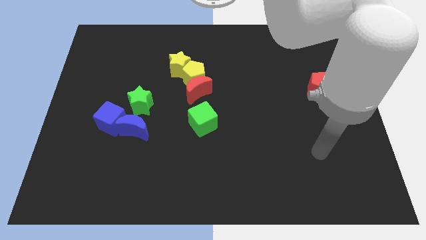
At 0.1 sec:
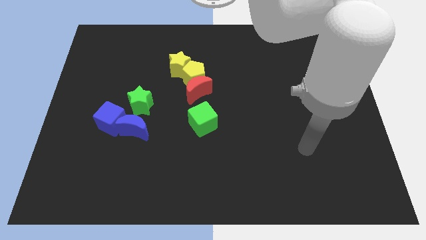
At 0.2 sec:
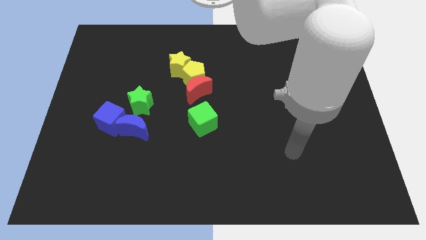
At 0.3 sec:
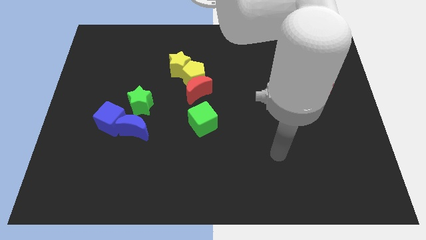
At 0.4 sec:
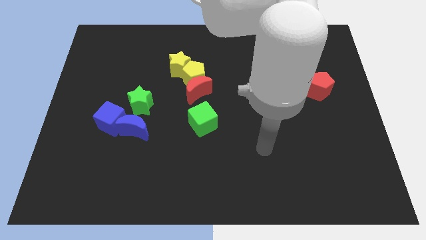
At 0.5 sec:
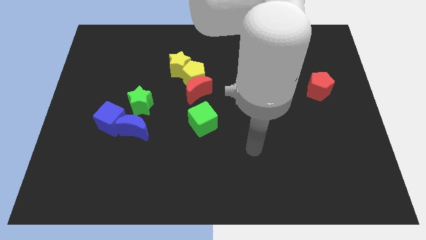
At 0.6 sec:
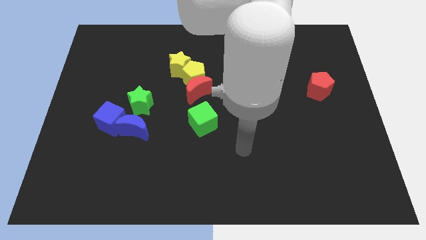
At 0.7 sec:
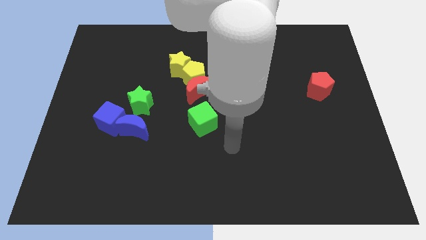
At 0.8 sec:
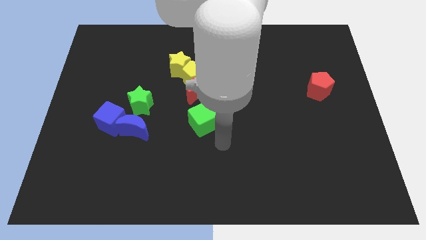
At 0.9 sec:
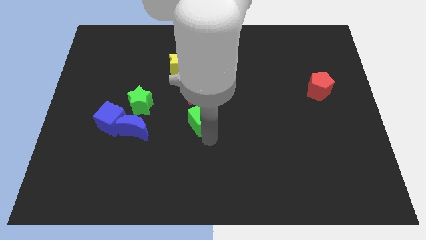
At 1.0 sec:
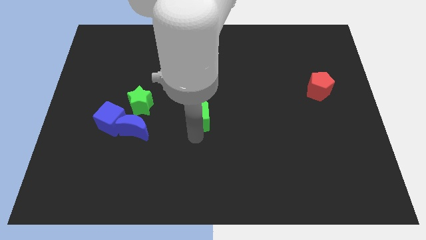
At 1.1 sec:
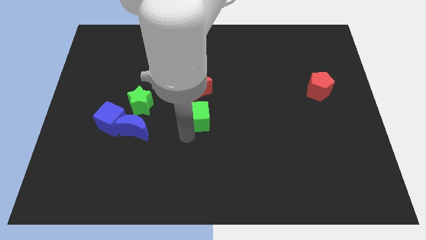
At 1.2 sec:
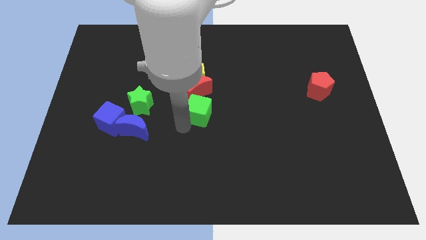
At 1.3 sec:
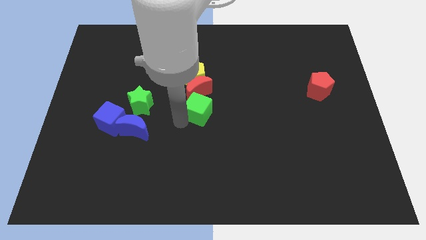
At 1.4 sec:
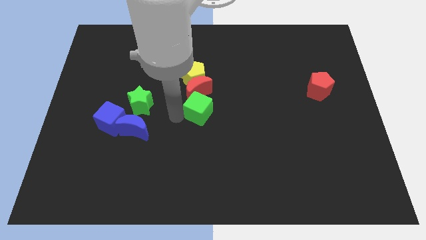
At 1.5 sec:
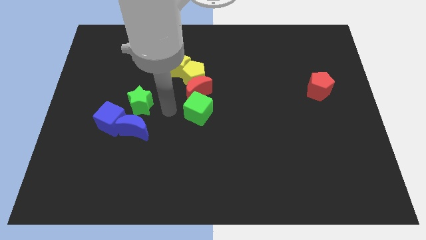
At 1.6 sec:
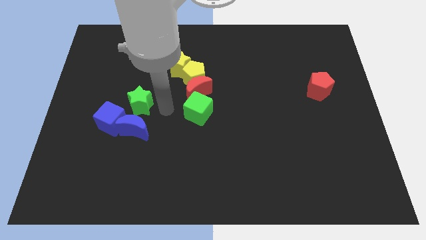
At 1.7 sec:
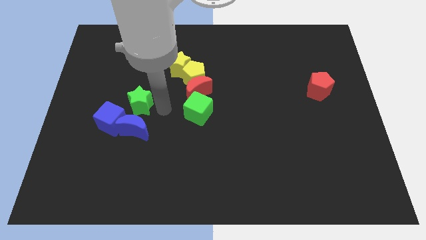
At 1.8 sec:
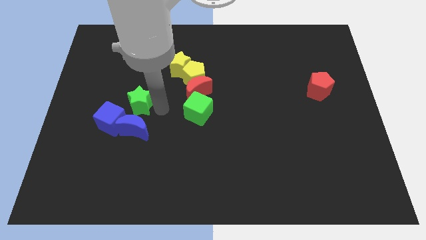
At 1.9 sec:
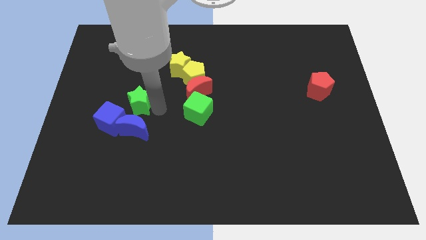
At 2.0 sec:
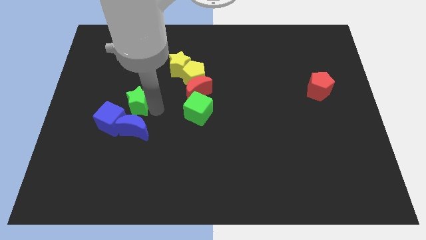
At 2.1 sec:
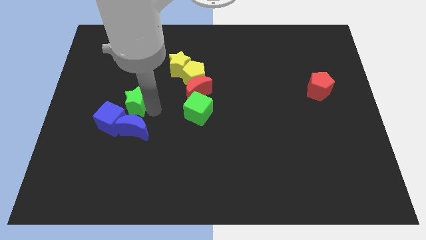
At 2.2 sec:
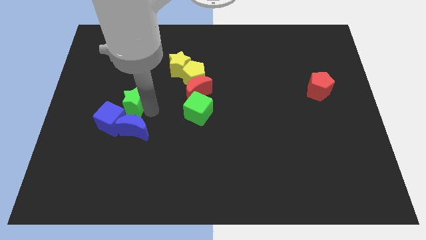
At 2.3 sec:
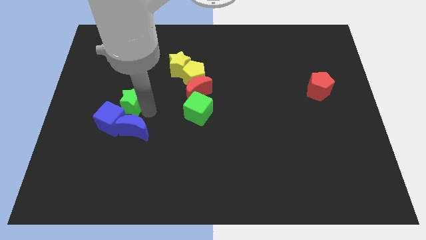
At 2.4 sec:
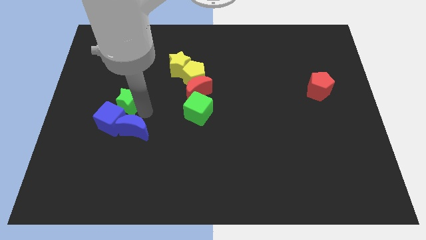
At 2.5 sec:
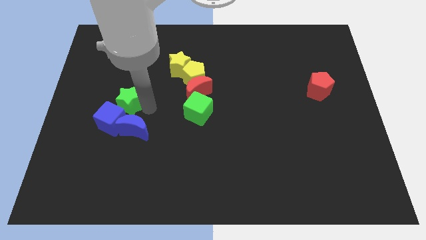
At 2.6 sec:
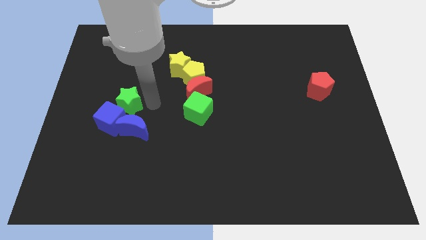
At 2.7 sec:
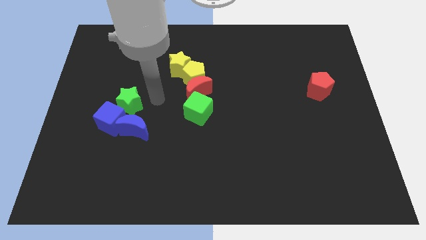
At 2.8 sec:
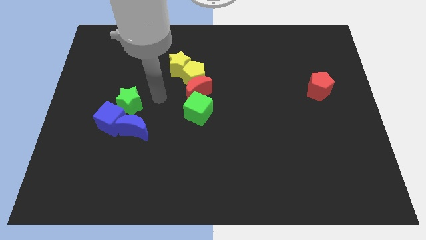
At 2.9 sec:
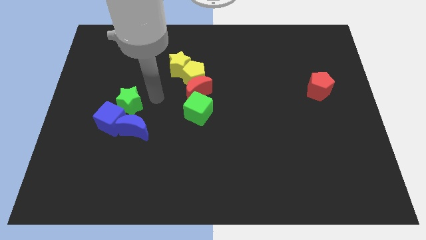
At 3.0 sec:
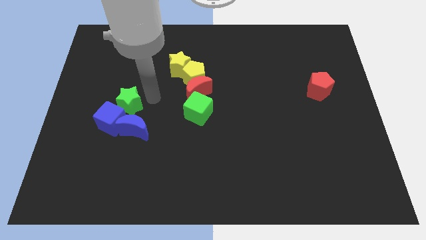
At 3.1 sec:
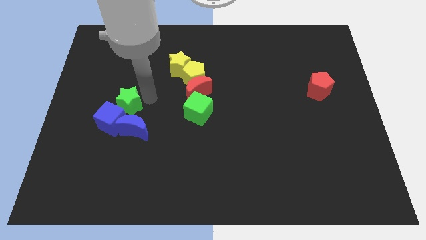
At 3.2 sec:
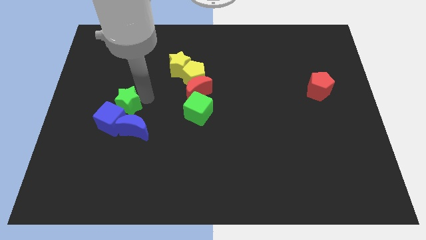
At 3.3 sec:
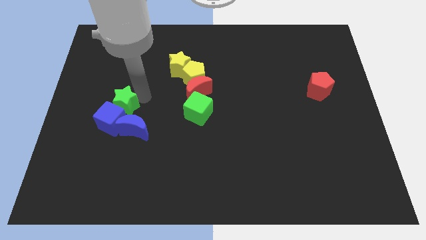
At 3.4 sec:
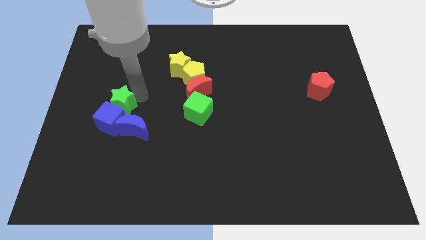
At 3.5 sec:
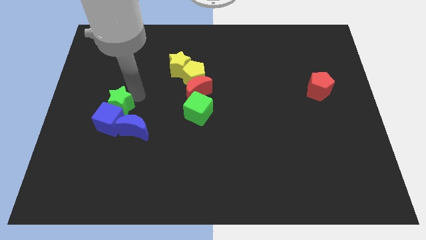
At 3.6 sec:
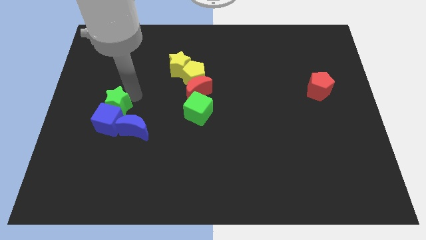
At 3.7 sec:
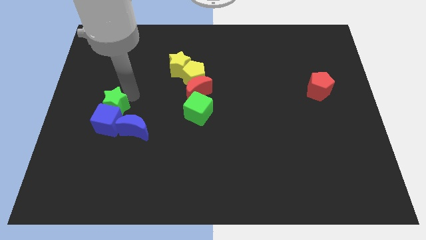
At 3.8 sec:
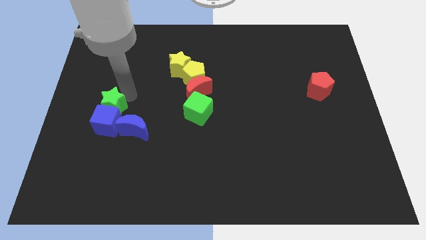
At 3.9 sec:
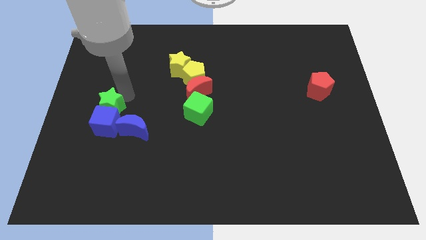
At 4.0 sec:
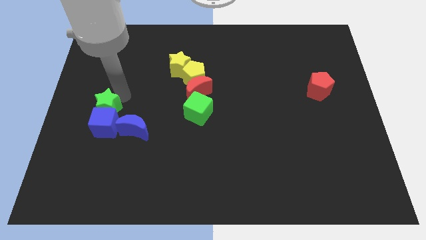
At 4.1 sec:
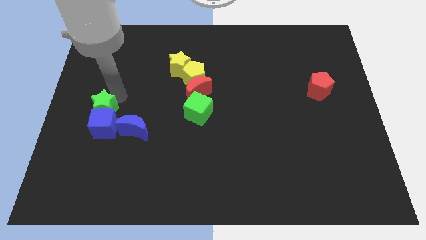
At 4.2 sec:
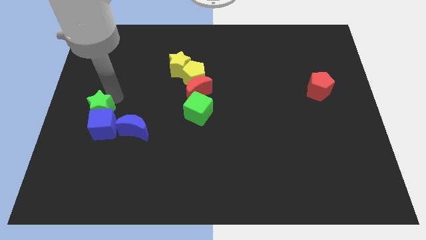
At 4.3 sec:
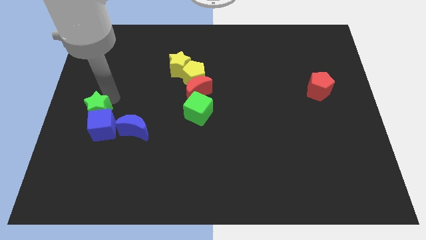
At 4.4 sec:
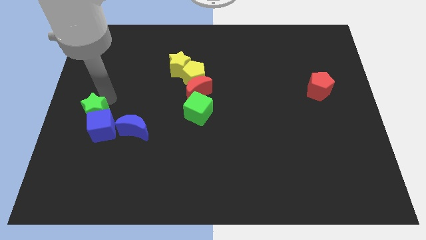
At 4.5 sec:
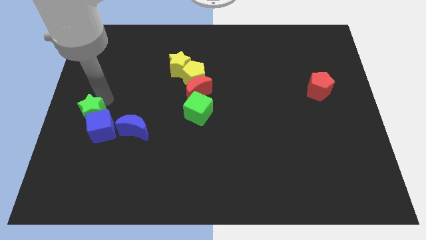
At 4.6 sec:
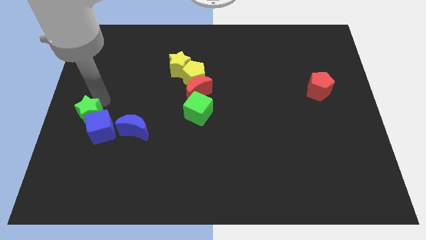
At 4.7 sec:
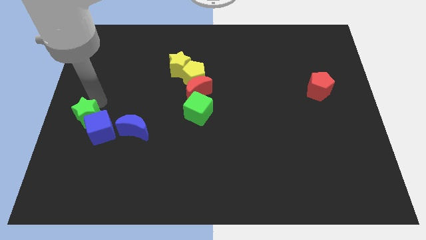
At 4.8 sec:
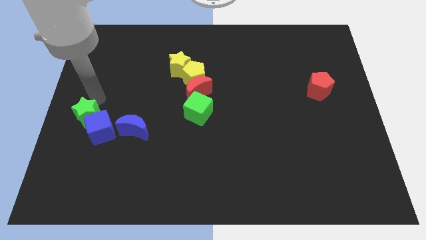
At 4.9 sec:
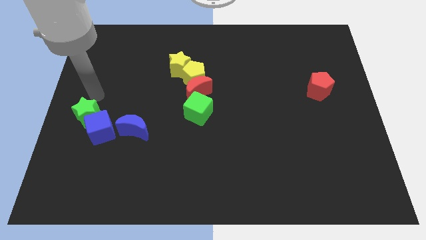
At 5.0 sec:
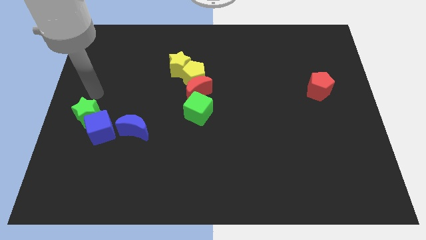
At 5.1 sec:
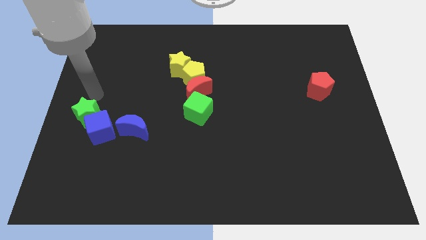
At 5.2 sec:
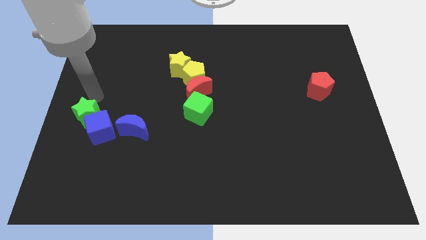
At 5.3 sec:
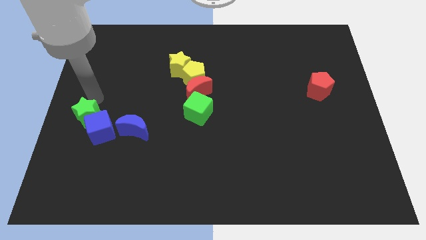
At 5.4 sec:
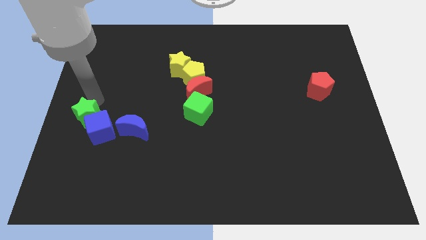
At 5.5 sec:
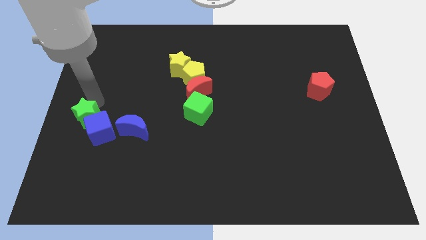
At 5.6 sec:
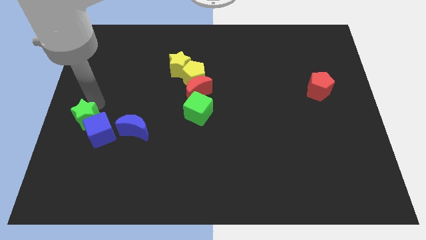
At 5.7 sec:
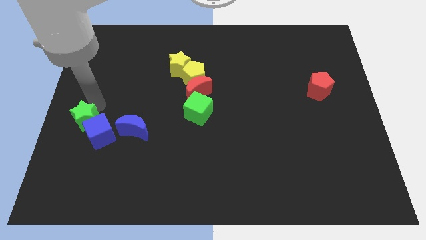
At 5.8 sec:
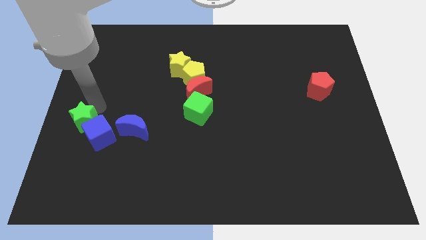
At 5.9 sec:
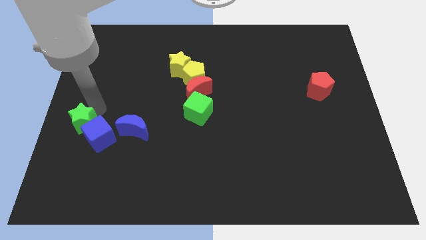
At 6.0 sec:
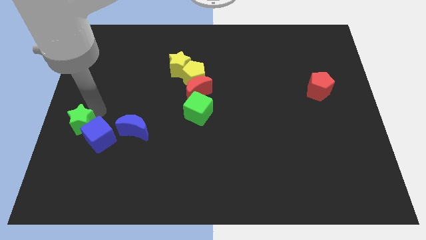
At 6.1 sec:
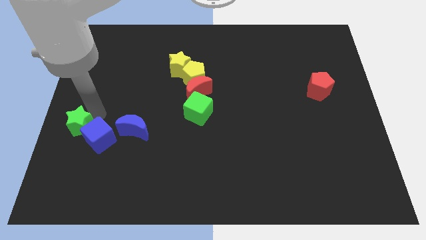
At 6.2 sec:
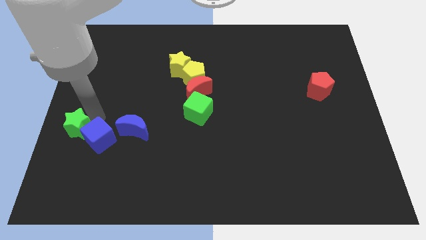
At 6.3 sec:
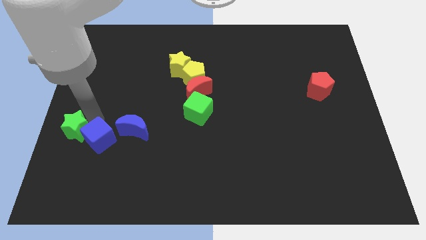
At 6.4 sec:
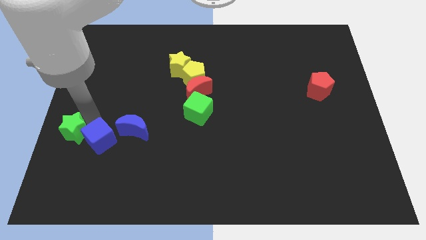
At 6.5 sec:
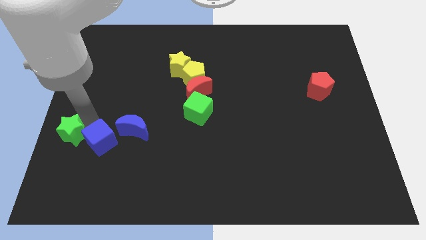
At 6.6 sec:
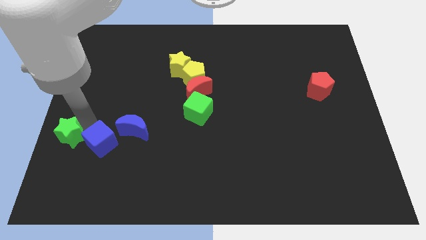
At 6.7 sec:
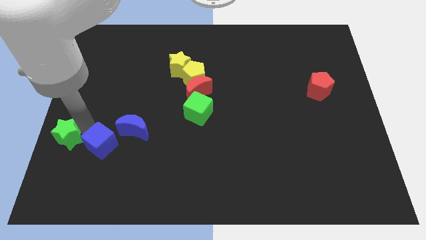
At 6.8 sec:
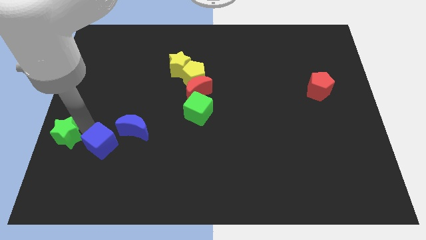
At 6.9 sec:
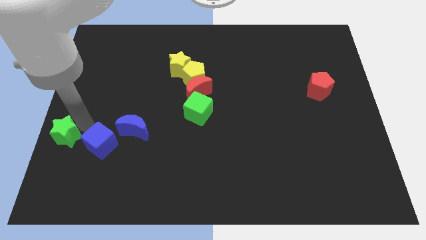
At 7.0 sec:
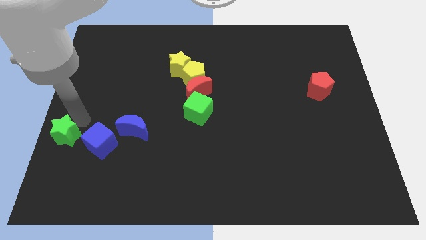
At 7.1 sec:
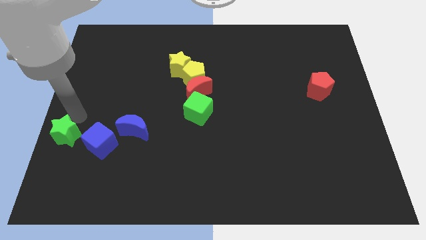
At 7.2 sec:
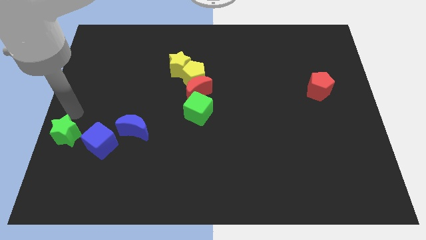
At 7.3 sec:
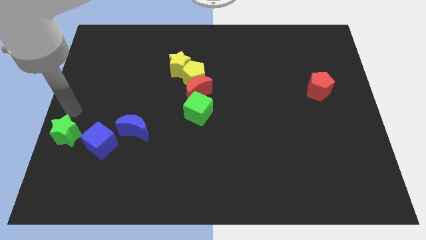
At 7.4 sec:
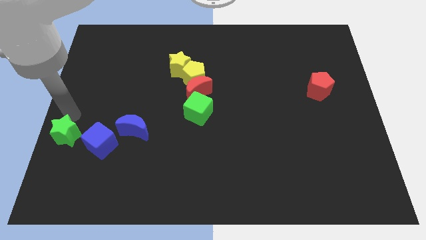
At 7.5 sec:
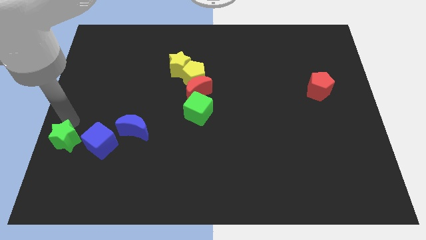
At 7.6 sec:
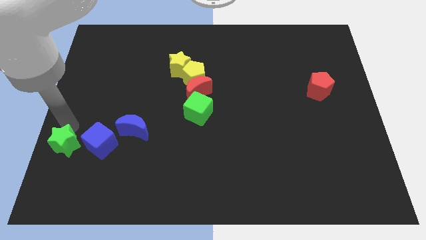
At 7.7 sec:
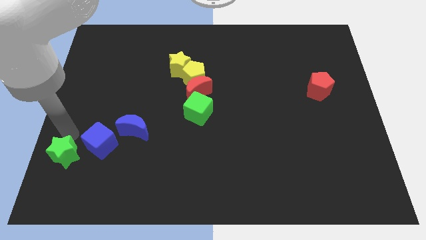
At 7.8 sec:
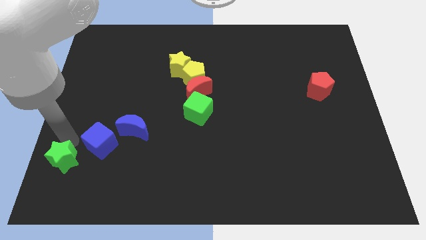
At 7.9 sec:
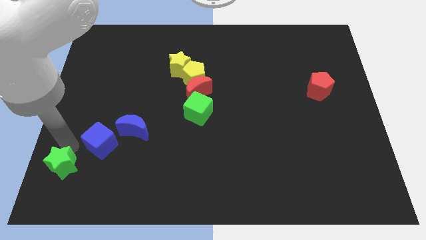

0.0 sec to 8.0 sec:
move the green star to the lower left corner
